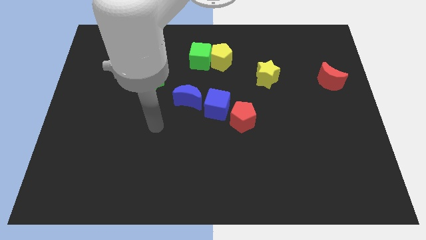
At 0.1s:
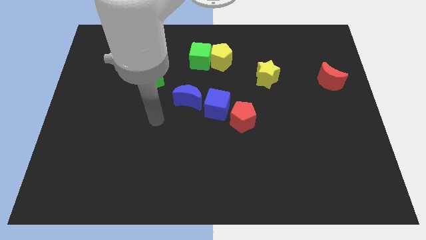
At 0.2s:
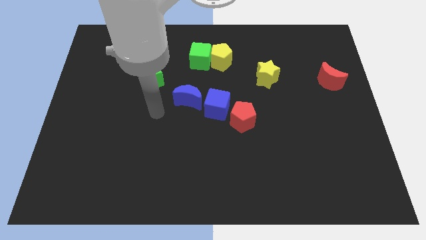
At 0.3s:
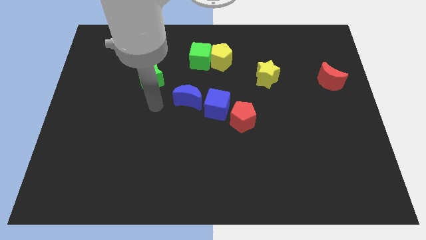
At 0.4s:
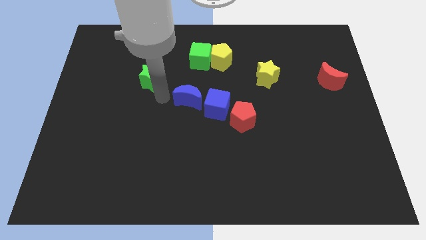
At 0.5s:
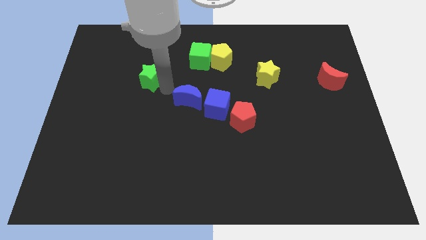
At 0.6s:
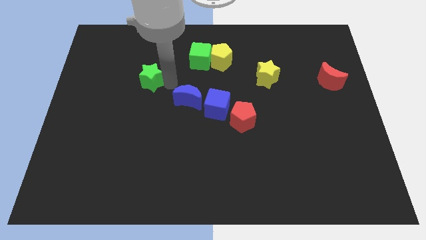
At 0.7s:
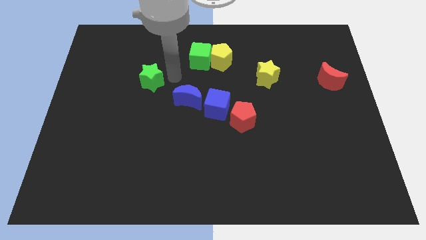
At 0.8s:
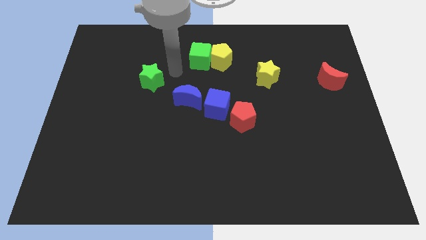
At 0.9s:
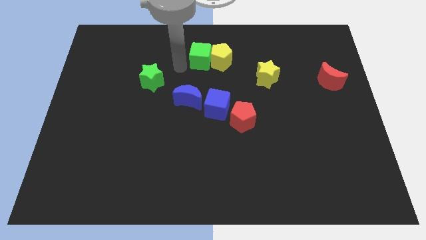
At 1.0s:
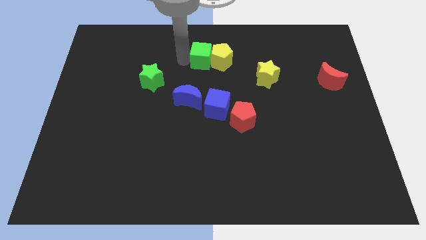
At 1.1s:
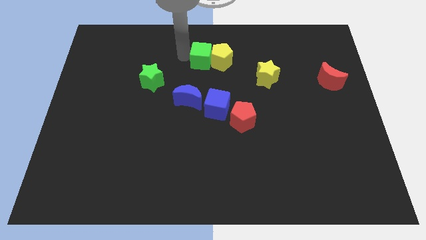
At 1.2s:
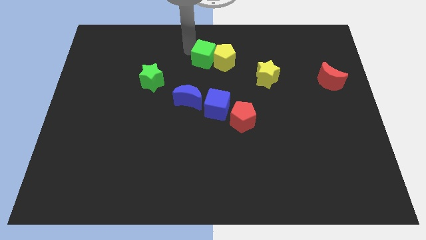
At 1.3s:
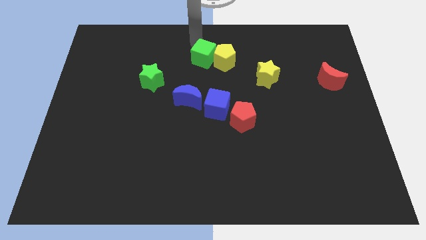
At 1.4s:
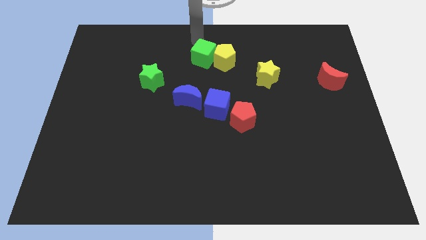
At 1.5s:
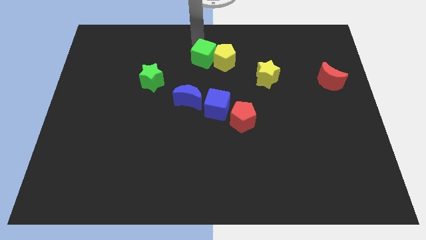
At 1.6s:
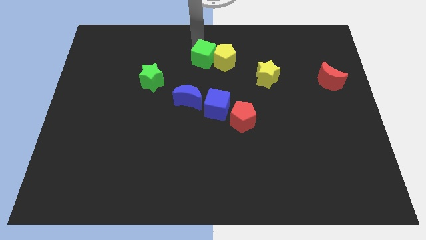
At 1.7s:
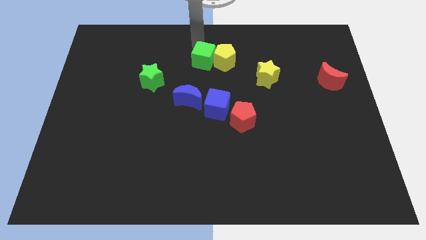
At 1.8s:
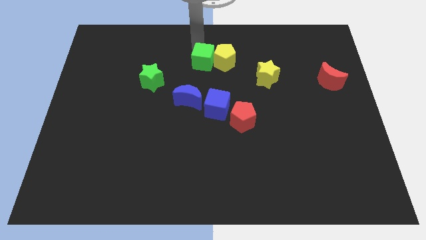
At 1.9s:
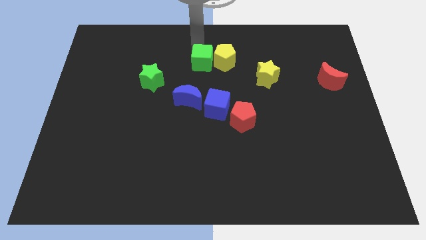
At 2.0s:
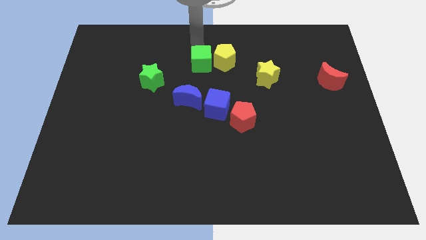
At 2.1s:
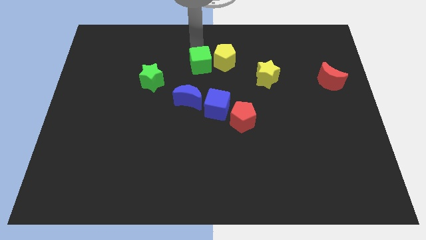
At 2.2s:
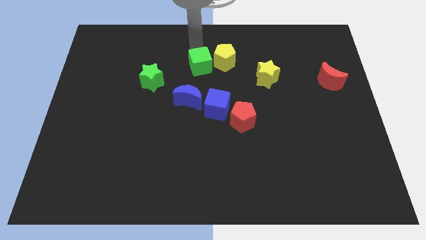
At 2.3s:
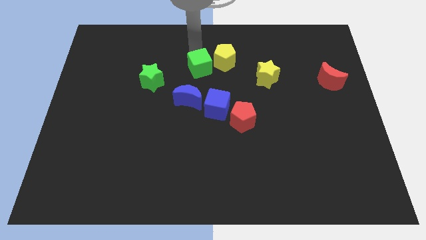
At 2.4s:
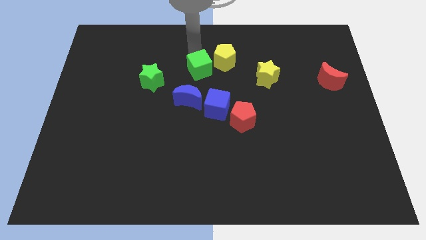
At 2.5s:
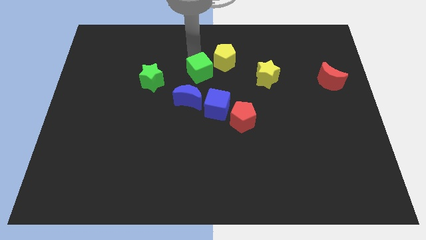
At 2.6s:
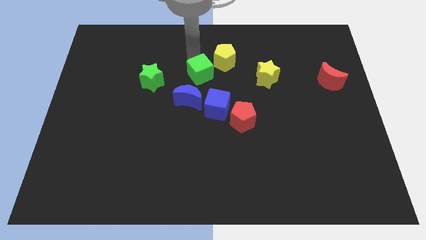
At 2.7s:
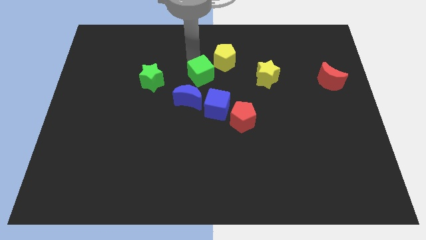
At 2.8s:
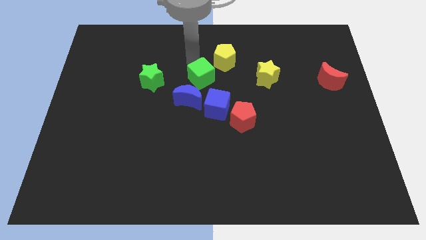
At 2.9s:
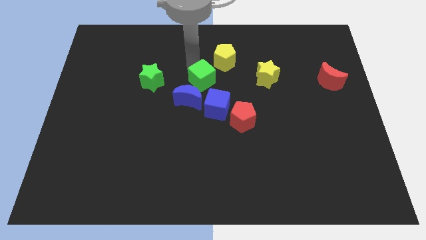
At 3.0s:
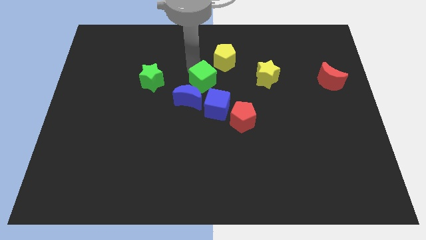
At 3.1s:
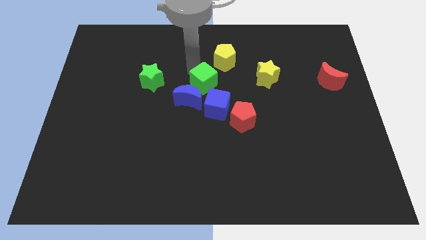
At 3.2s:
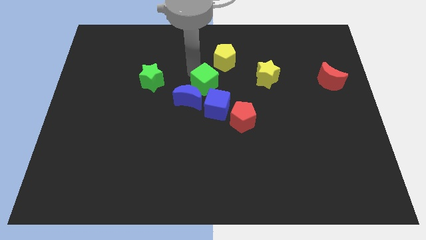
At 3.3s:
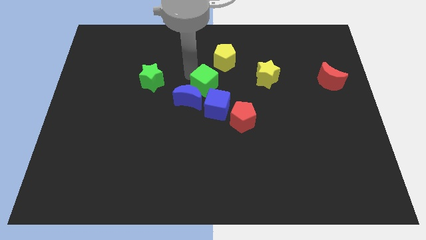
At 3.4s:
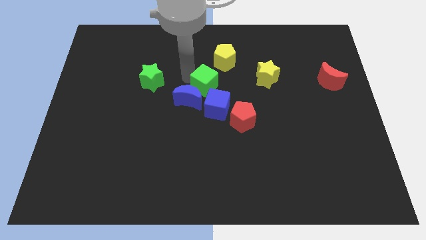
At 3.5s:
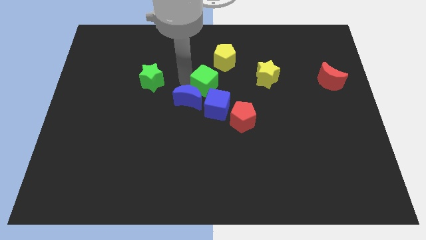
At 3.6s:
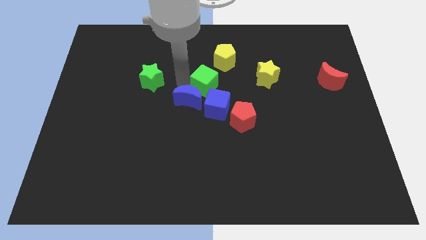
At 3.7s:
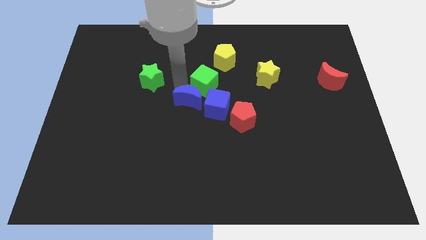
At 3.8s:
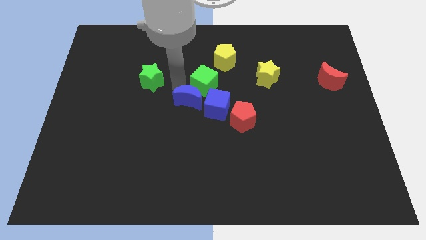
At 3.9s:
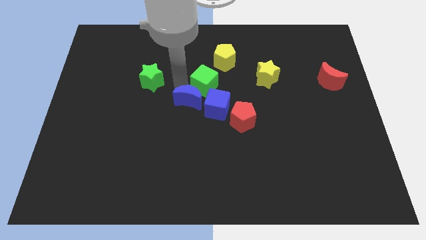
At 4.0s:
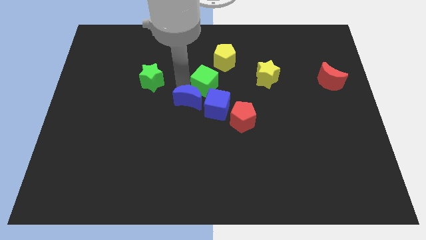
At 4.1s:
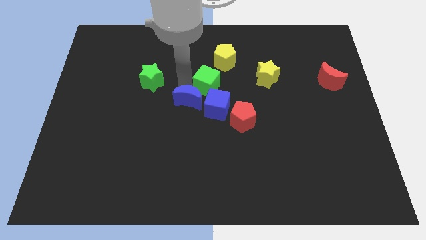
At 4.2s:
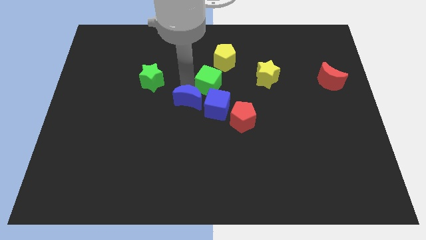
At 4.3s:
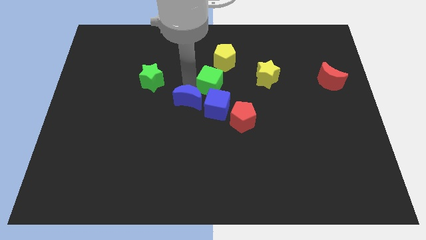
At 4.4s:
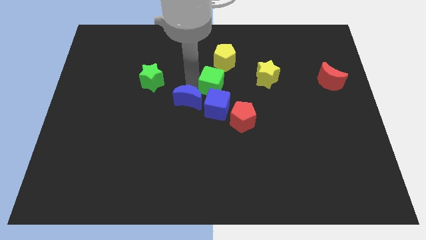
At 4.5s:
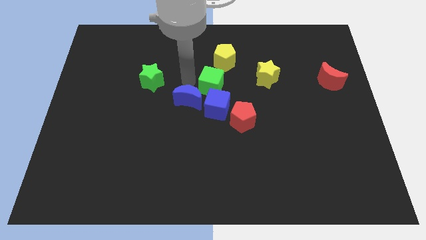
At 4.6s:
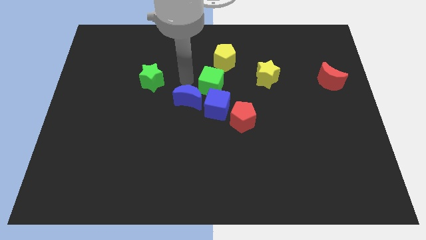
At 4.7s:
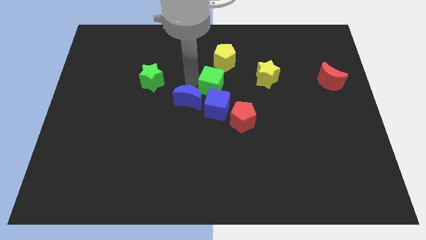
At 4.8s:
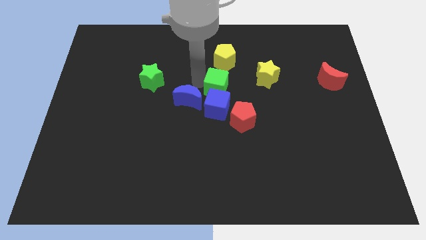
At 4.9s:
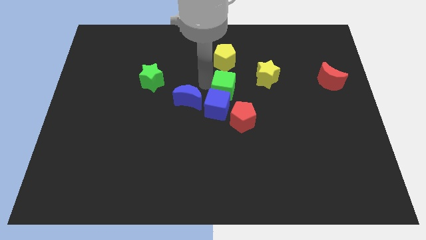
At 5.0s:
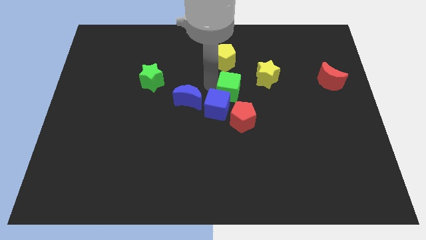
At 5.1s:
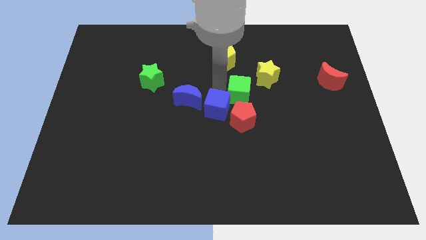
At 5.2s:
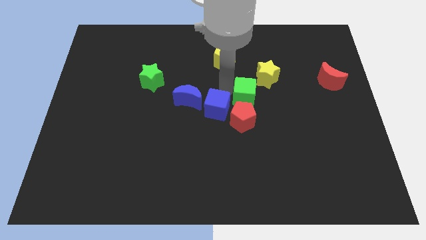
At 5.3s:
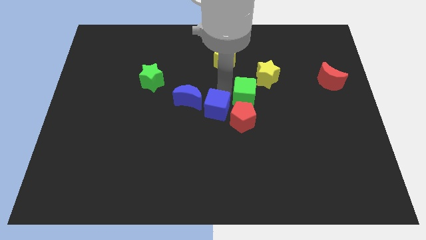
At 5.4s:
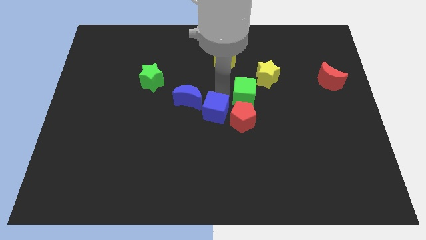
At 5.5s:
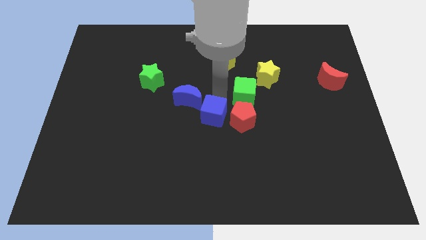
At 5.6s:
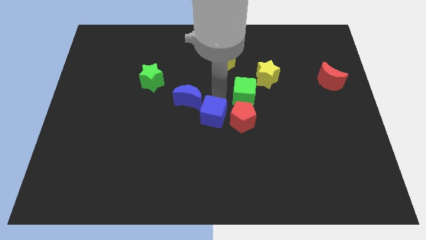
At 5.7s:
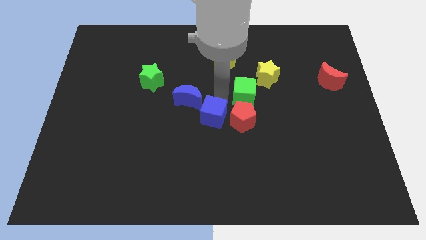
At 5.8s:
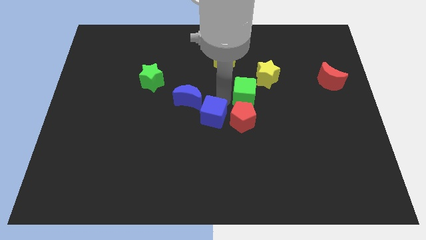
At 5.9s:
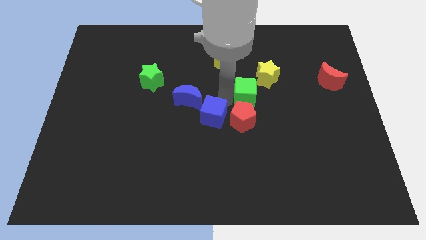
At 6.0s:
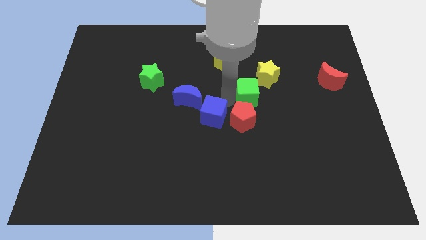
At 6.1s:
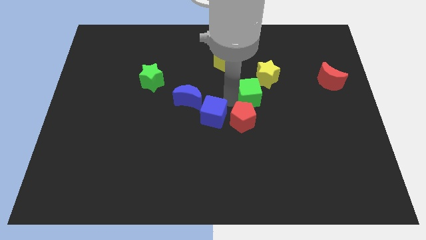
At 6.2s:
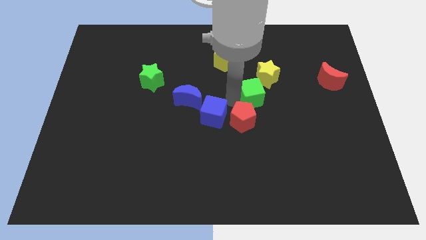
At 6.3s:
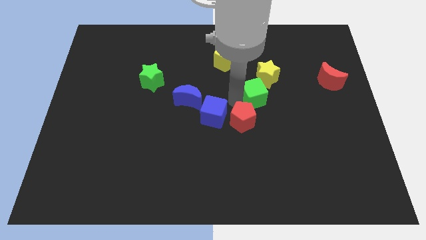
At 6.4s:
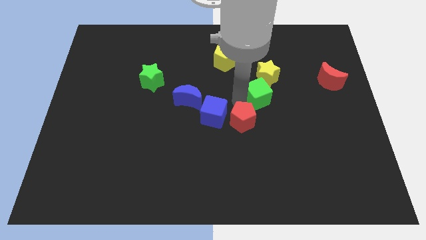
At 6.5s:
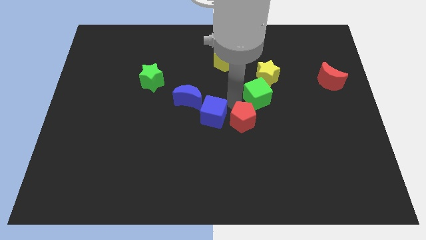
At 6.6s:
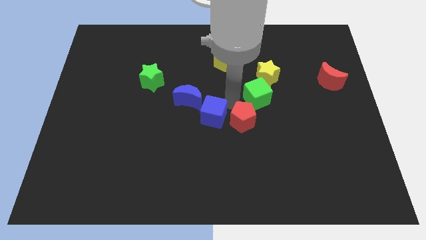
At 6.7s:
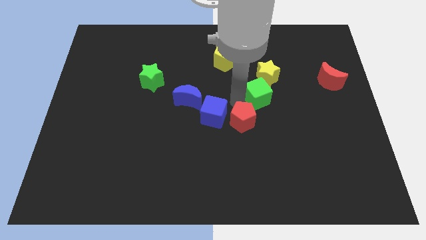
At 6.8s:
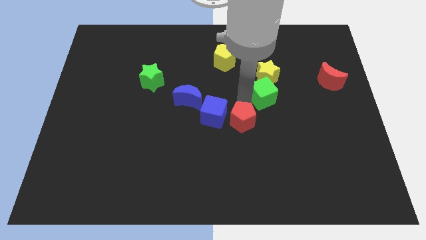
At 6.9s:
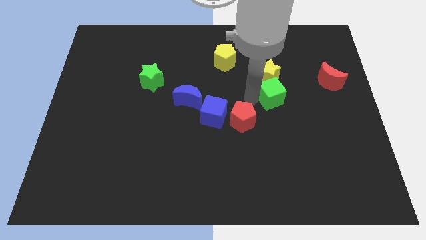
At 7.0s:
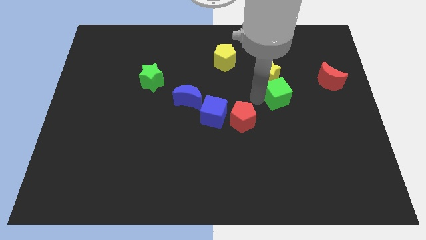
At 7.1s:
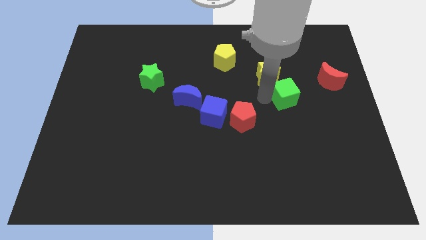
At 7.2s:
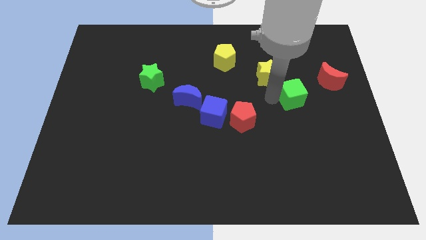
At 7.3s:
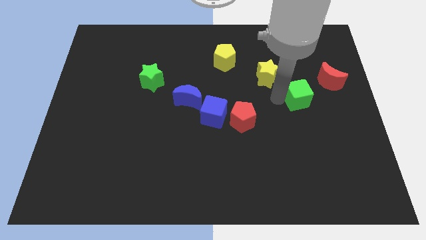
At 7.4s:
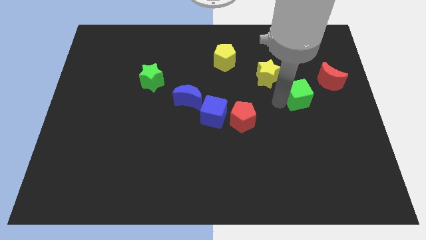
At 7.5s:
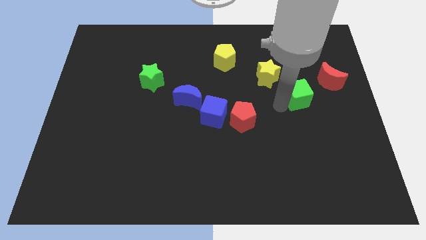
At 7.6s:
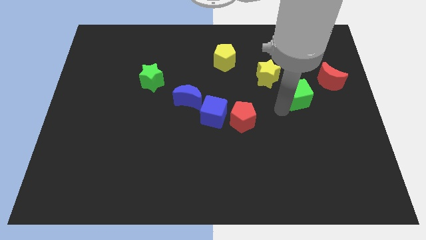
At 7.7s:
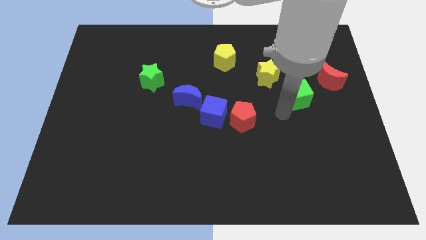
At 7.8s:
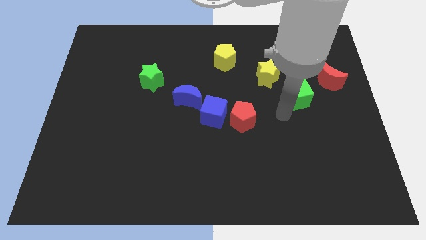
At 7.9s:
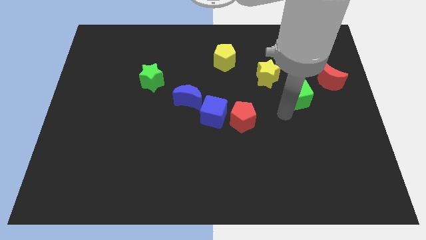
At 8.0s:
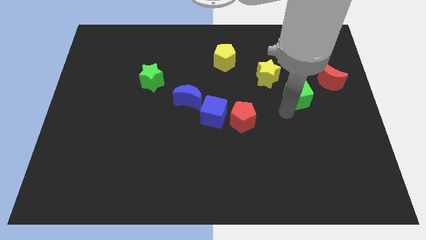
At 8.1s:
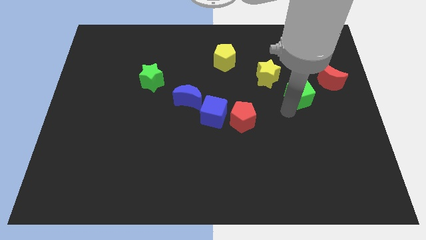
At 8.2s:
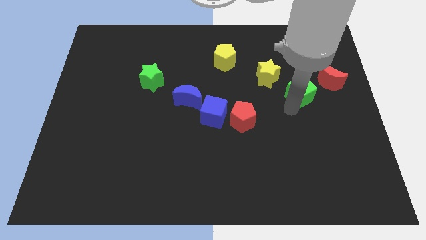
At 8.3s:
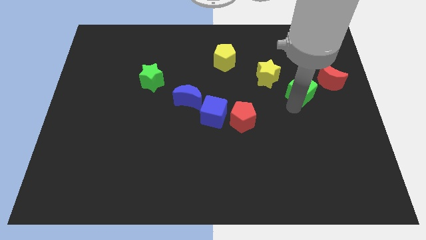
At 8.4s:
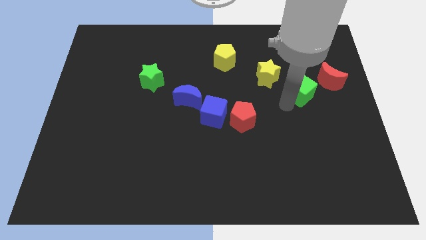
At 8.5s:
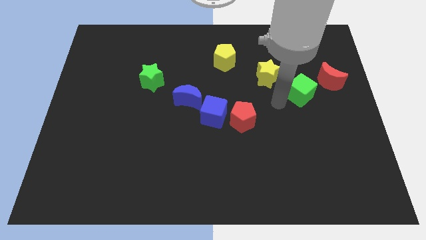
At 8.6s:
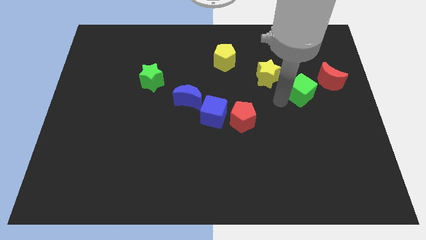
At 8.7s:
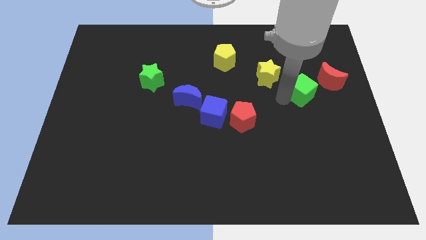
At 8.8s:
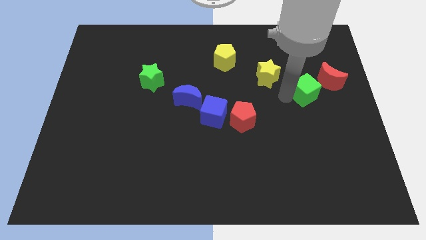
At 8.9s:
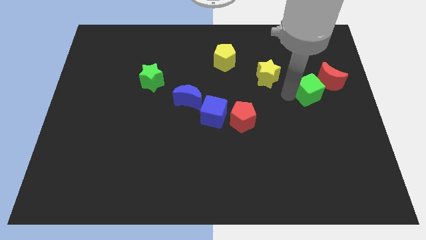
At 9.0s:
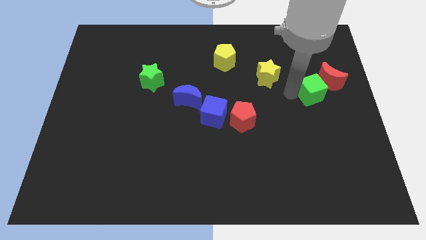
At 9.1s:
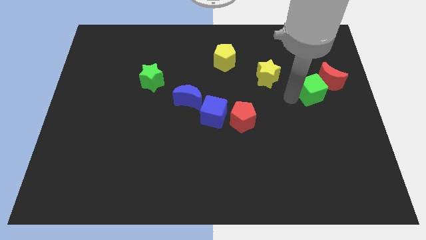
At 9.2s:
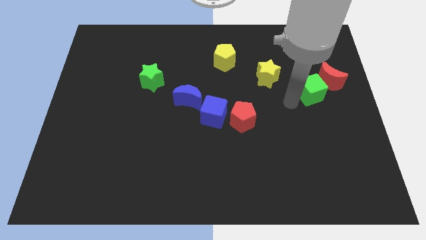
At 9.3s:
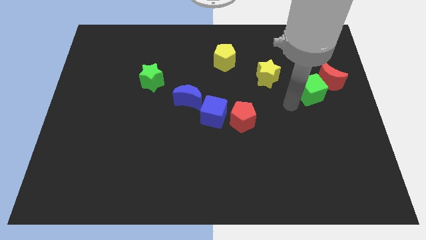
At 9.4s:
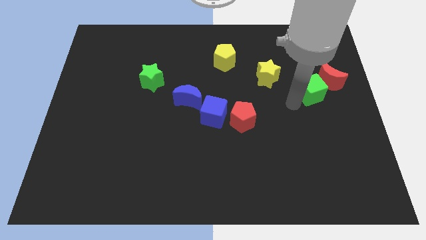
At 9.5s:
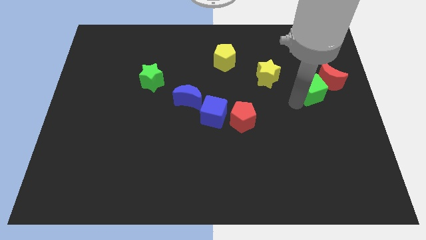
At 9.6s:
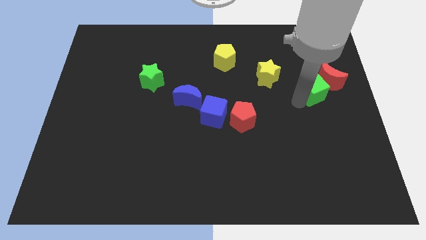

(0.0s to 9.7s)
move the green cube next to the red moon
